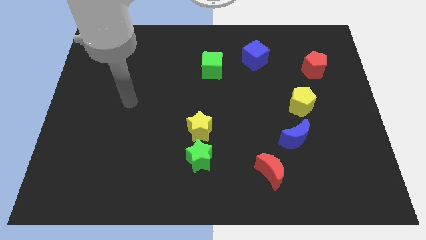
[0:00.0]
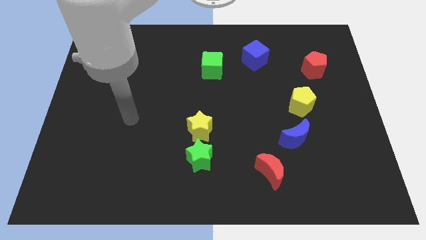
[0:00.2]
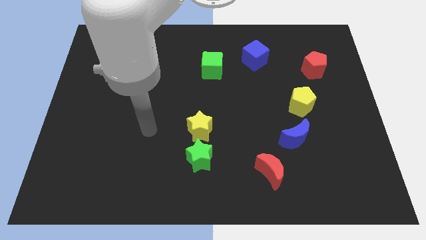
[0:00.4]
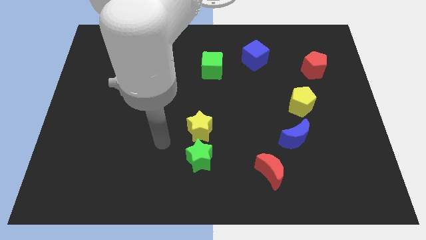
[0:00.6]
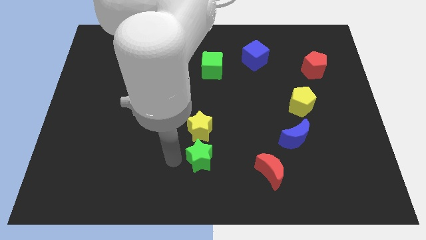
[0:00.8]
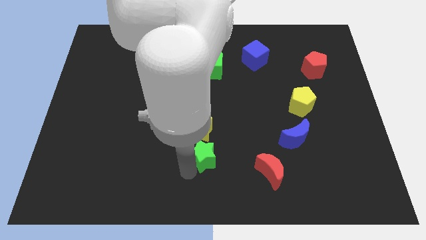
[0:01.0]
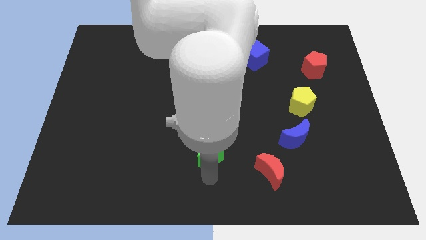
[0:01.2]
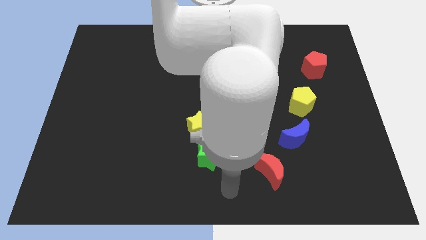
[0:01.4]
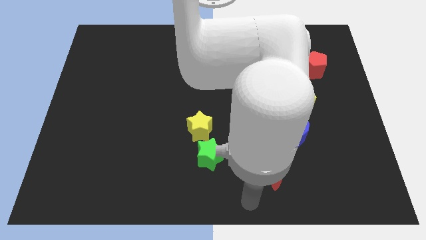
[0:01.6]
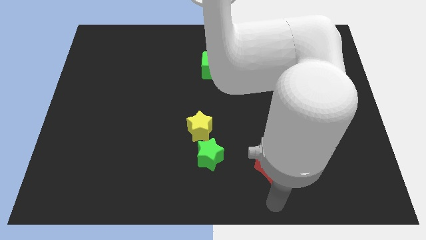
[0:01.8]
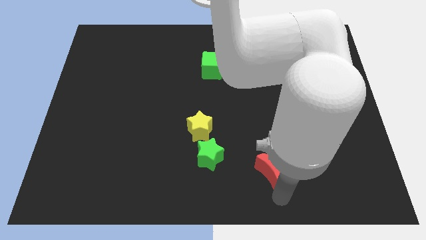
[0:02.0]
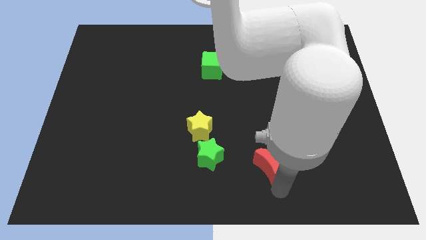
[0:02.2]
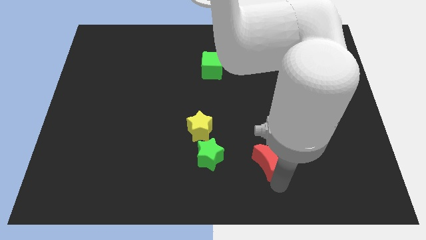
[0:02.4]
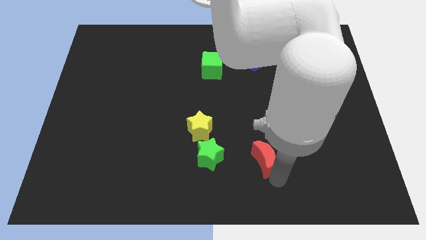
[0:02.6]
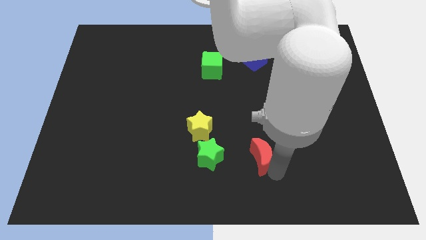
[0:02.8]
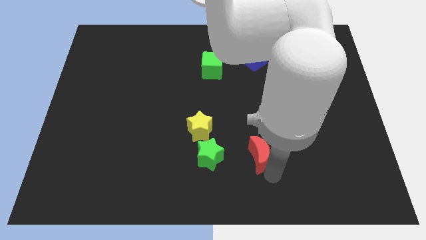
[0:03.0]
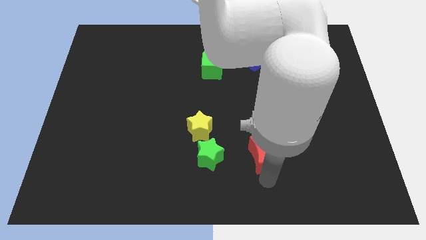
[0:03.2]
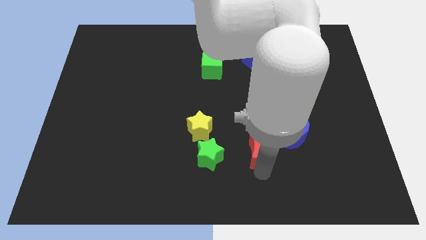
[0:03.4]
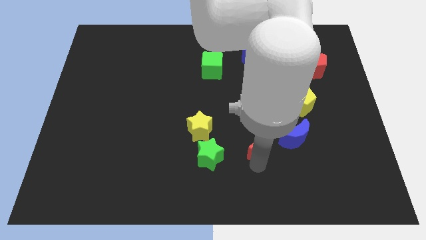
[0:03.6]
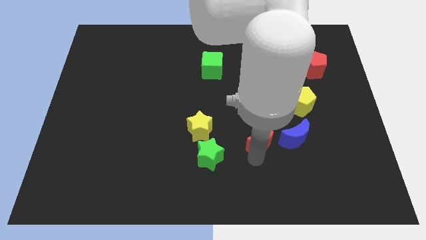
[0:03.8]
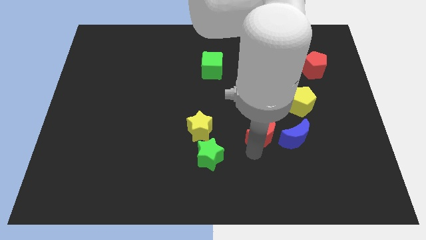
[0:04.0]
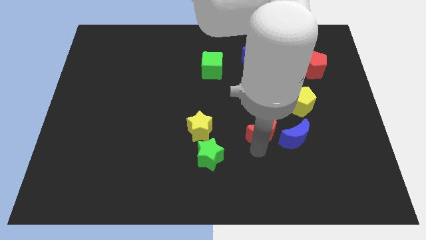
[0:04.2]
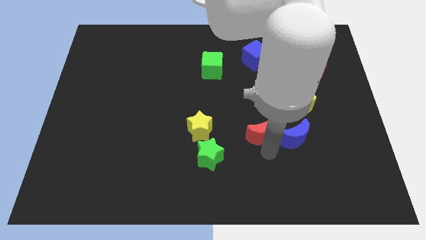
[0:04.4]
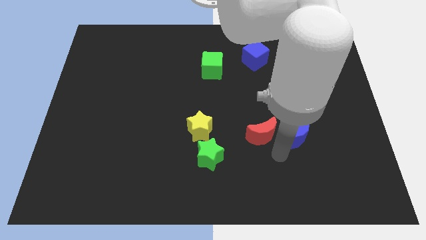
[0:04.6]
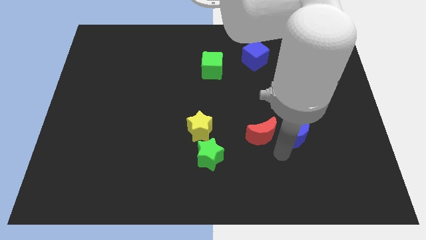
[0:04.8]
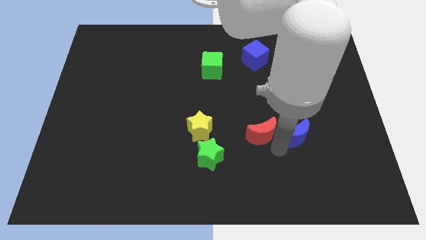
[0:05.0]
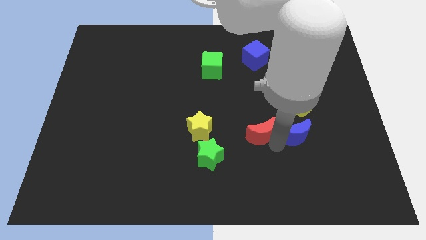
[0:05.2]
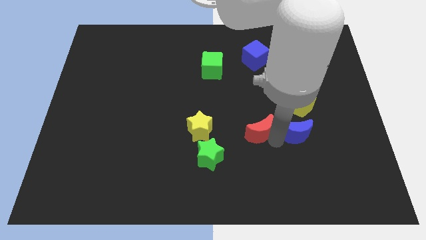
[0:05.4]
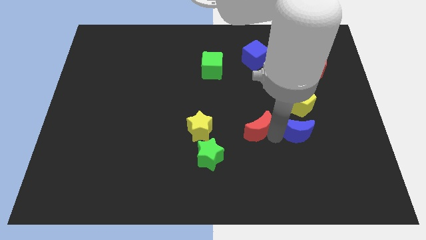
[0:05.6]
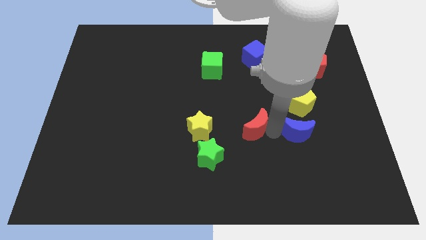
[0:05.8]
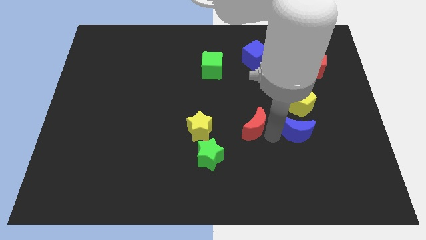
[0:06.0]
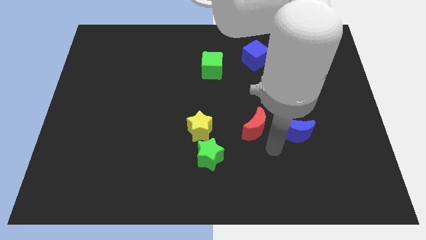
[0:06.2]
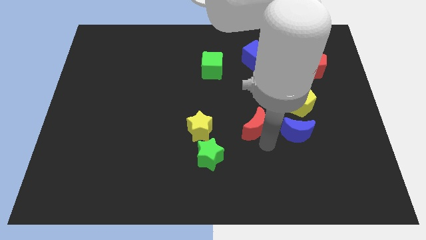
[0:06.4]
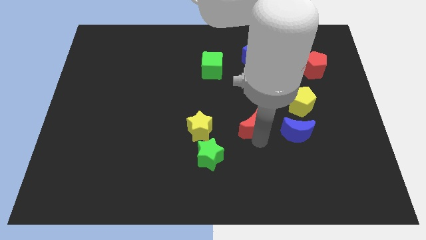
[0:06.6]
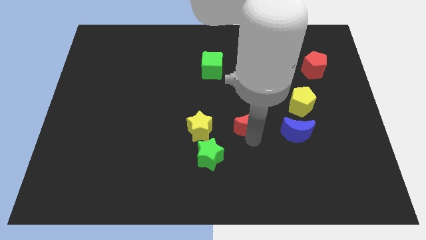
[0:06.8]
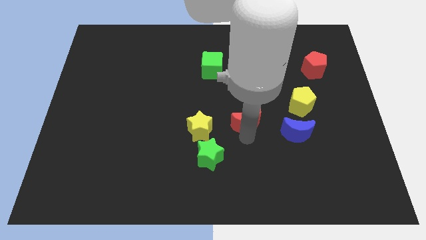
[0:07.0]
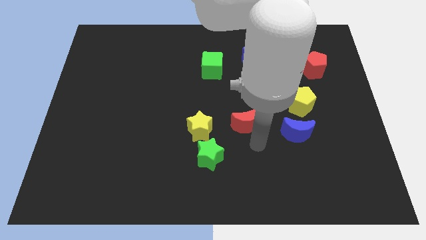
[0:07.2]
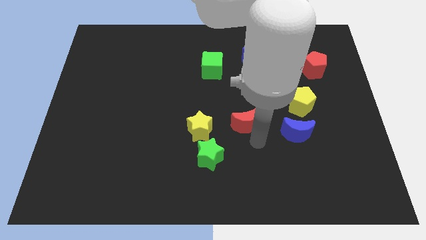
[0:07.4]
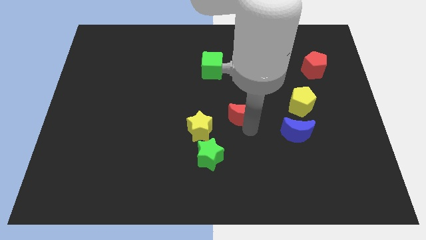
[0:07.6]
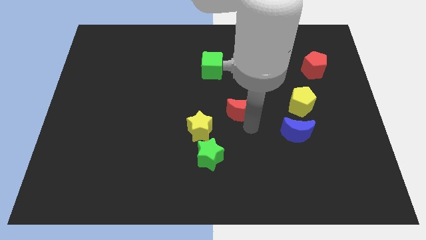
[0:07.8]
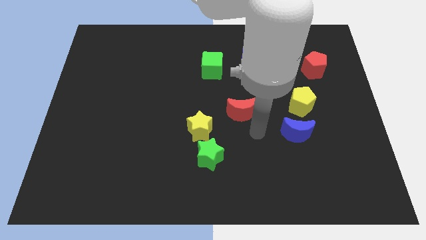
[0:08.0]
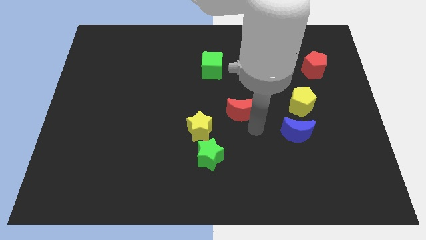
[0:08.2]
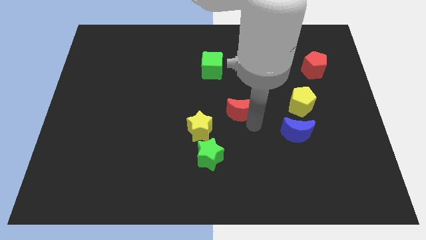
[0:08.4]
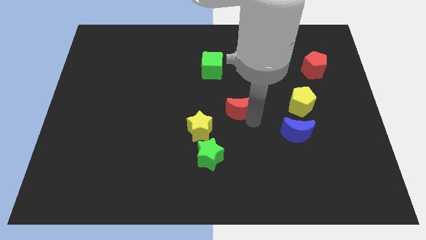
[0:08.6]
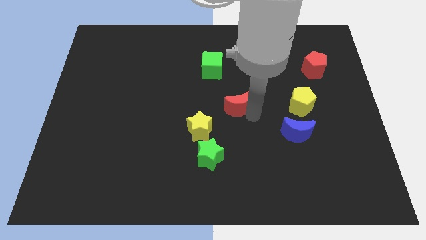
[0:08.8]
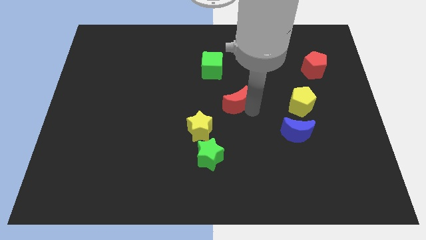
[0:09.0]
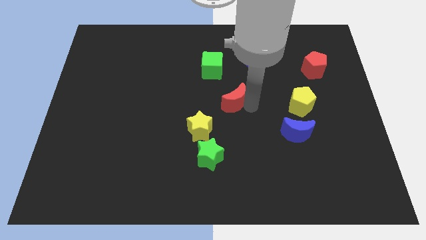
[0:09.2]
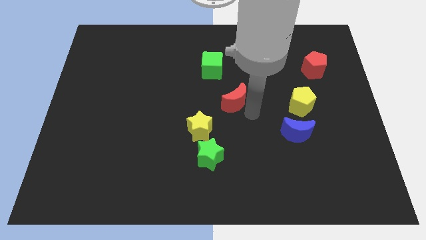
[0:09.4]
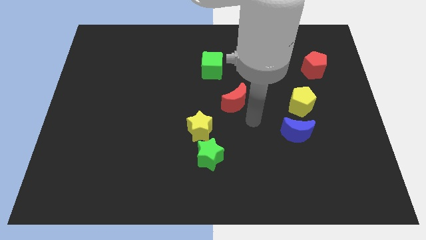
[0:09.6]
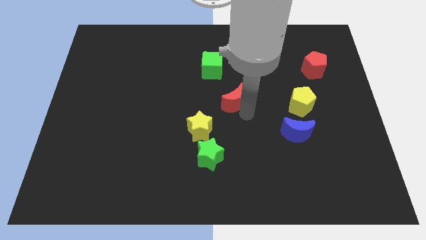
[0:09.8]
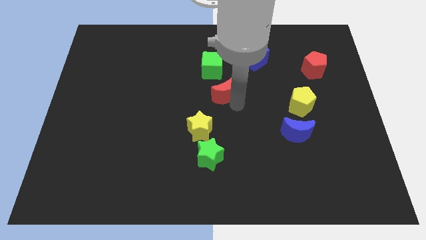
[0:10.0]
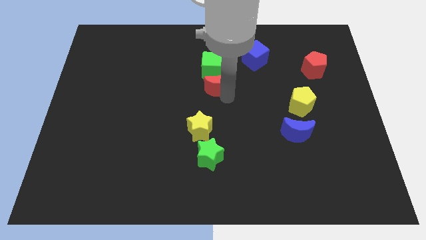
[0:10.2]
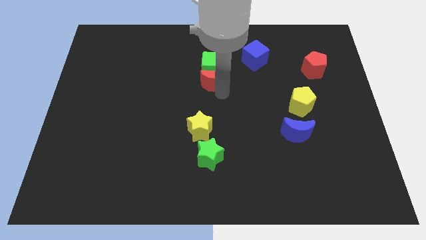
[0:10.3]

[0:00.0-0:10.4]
slide the red moon towards the green cube

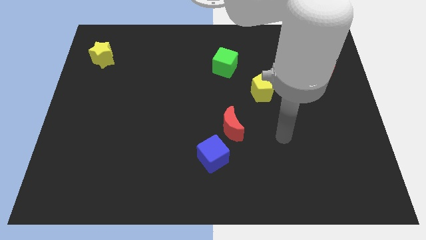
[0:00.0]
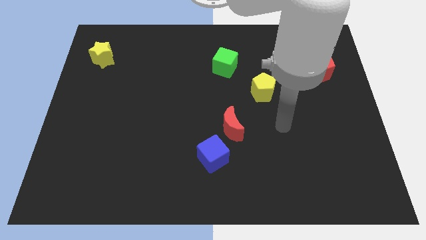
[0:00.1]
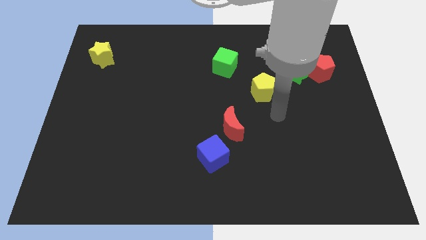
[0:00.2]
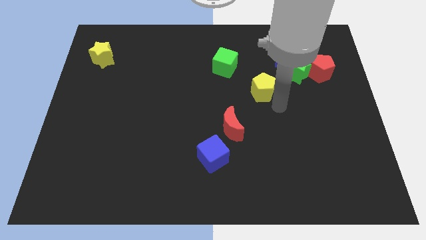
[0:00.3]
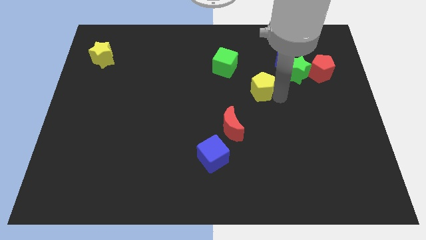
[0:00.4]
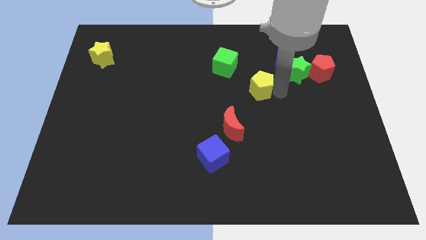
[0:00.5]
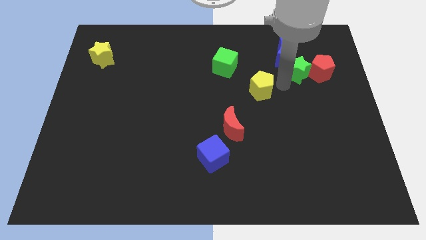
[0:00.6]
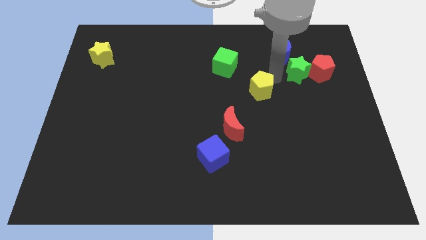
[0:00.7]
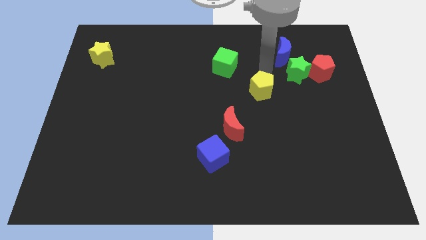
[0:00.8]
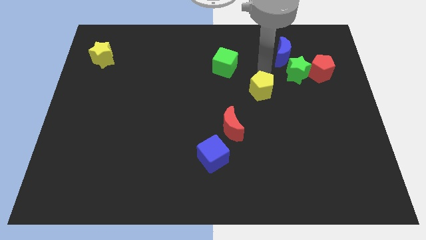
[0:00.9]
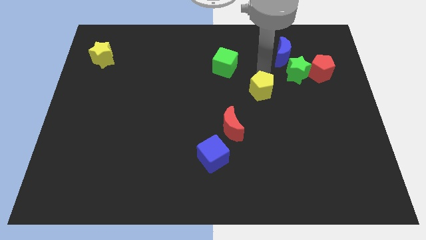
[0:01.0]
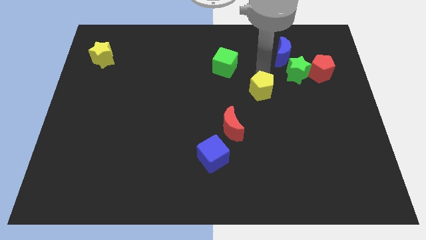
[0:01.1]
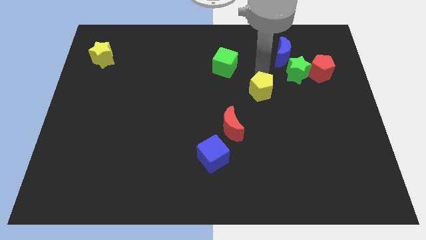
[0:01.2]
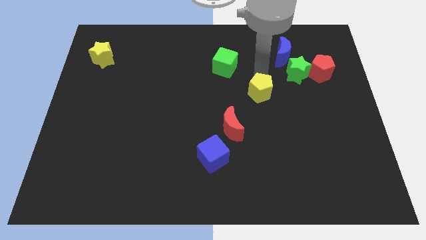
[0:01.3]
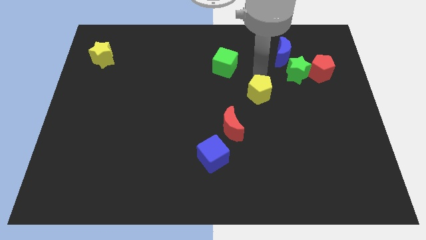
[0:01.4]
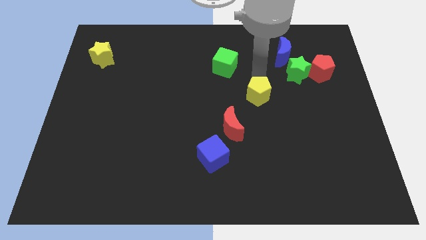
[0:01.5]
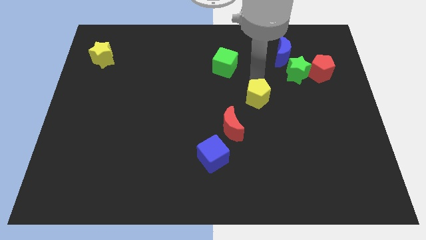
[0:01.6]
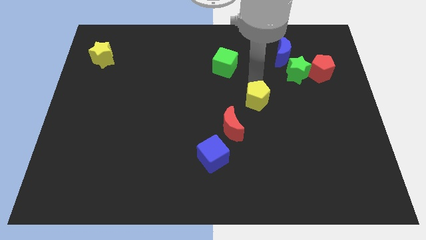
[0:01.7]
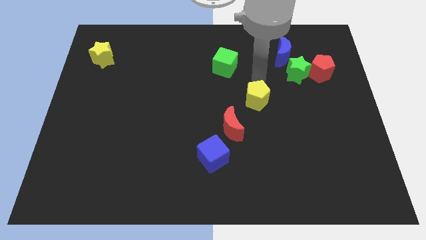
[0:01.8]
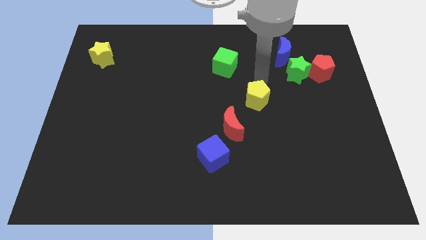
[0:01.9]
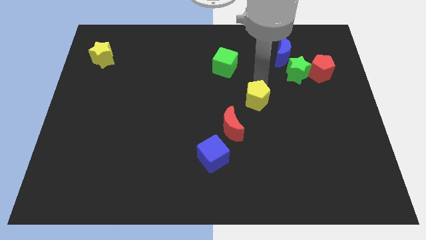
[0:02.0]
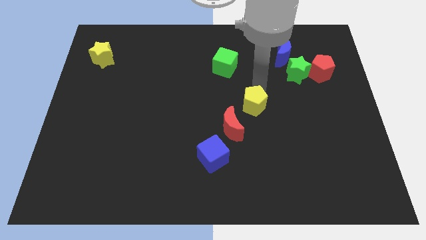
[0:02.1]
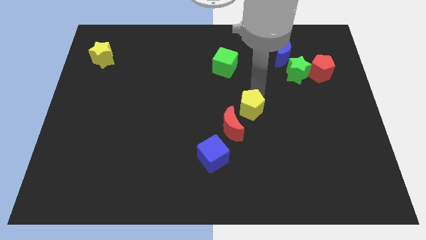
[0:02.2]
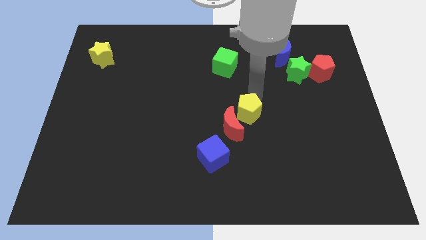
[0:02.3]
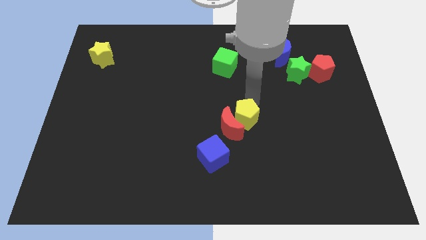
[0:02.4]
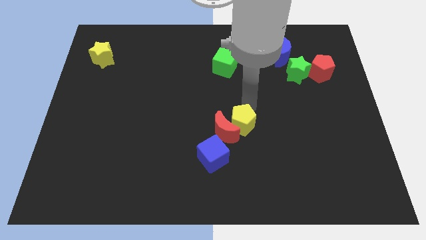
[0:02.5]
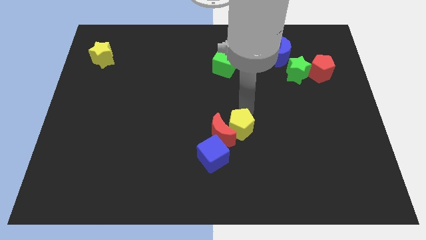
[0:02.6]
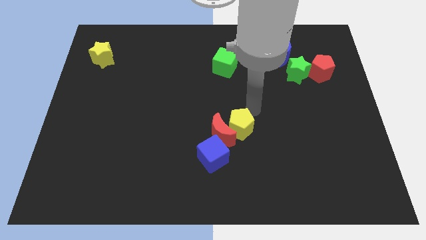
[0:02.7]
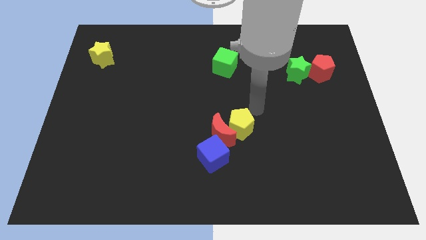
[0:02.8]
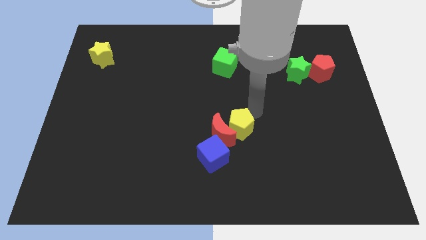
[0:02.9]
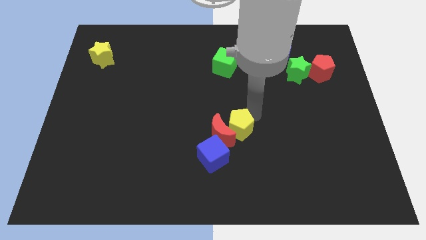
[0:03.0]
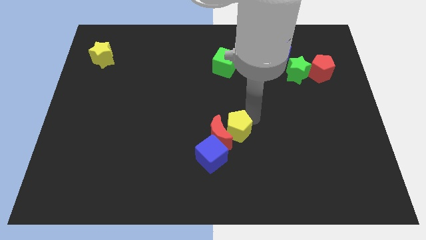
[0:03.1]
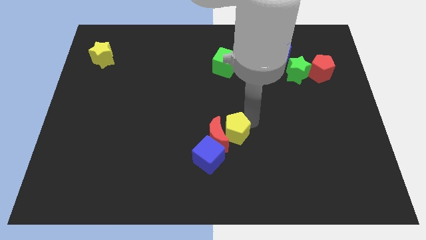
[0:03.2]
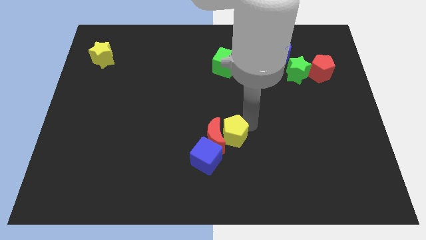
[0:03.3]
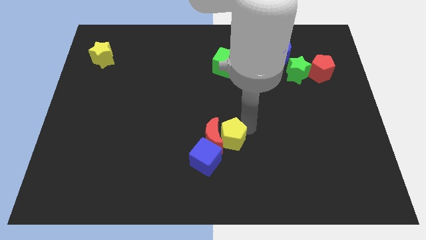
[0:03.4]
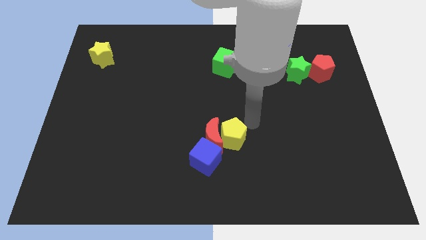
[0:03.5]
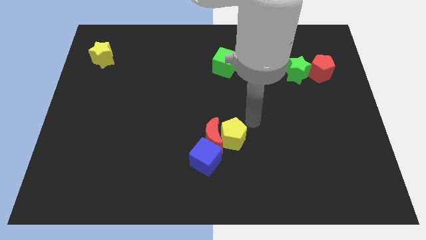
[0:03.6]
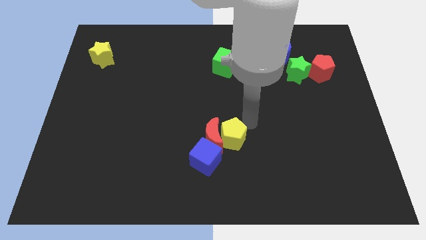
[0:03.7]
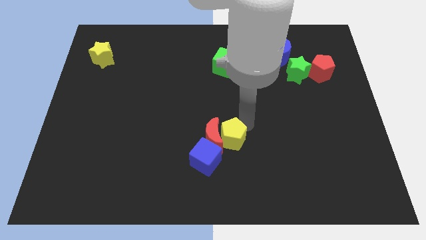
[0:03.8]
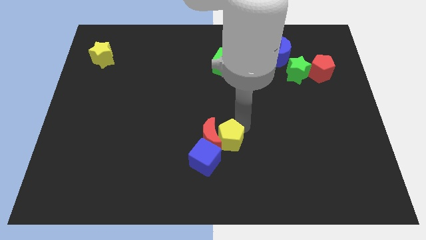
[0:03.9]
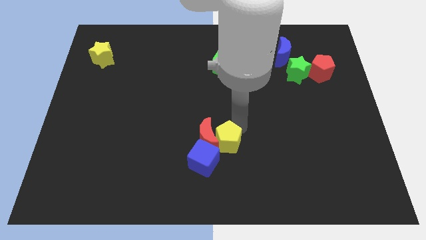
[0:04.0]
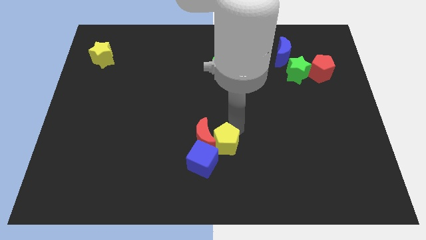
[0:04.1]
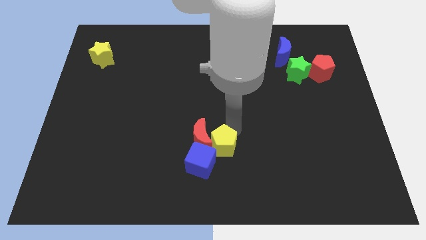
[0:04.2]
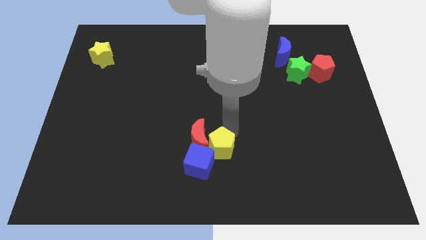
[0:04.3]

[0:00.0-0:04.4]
put the yellow pentagon next to the blue cube
